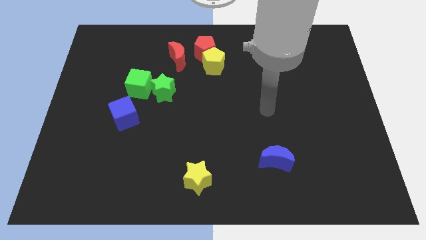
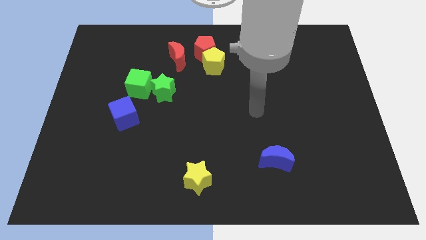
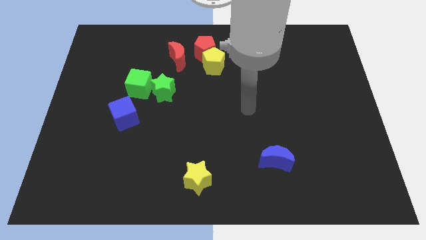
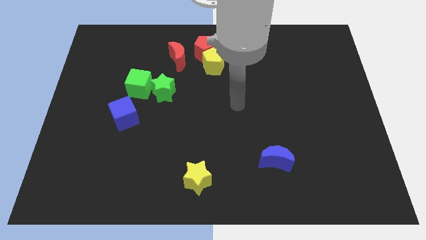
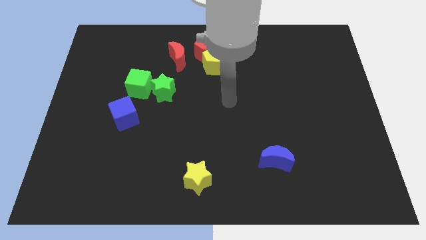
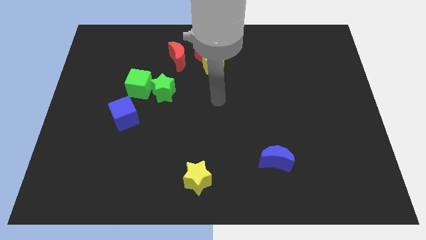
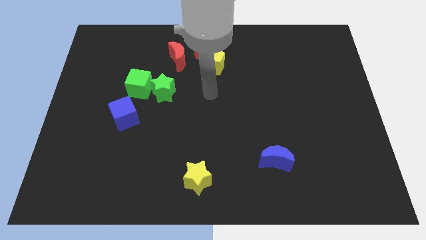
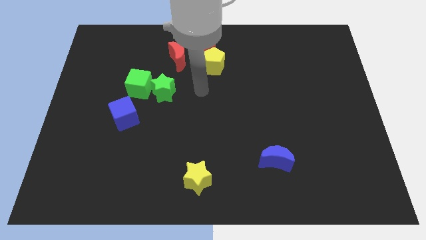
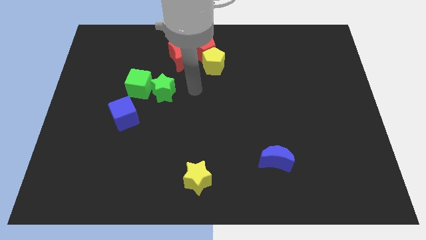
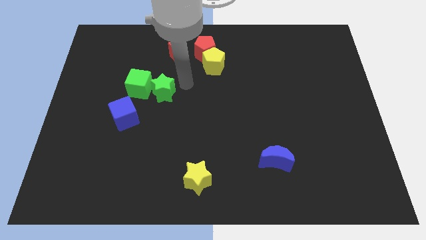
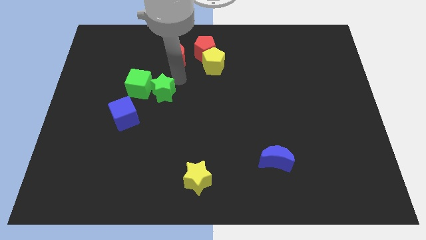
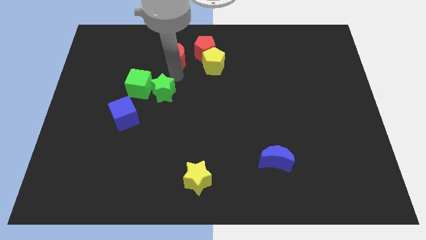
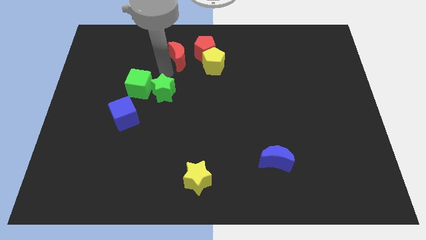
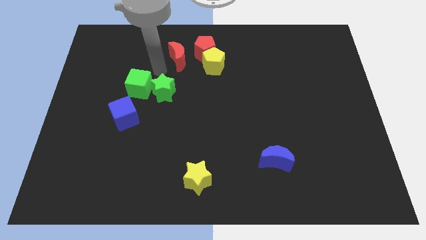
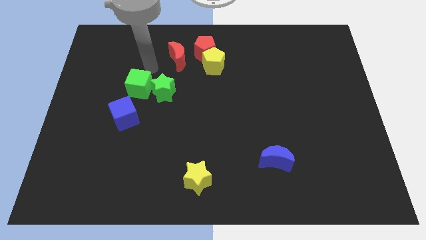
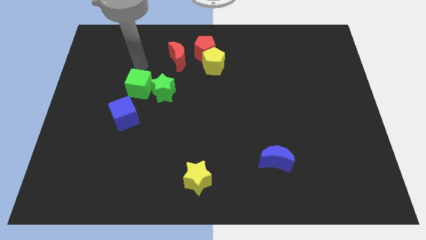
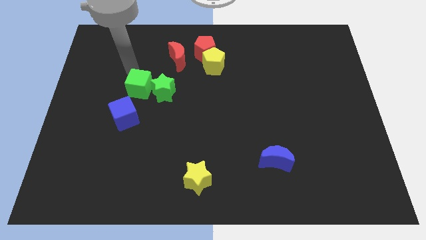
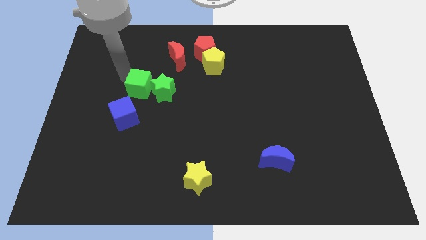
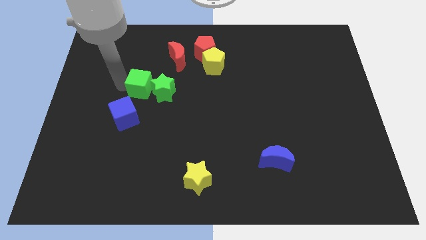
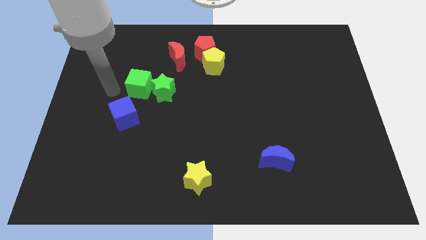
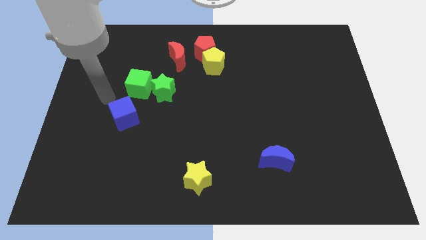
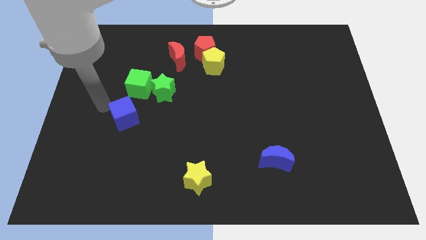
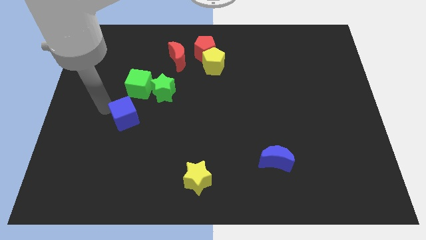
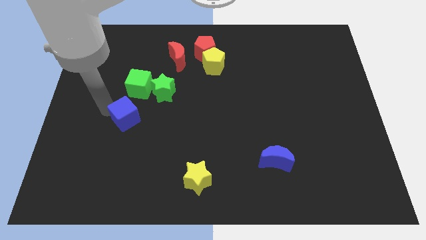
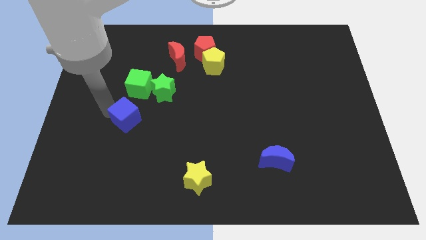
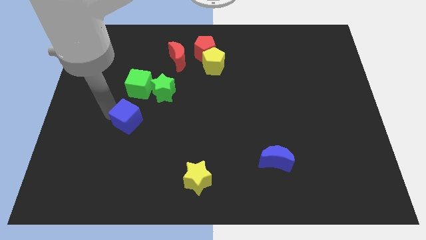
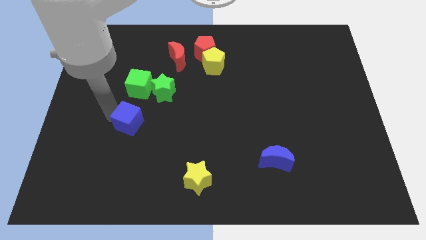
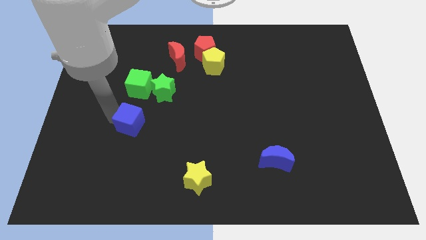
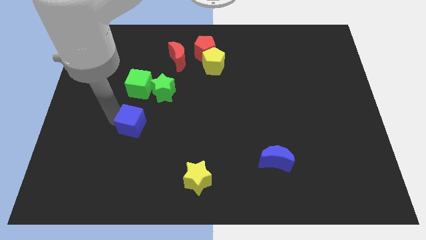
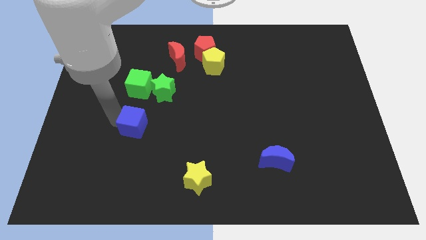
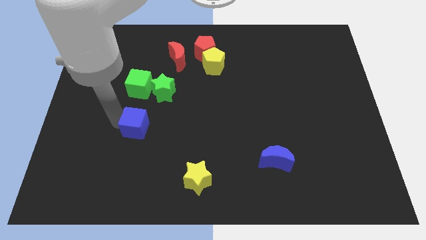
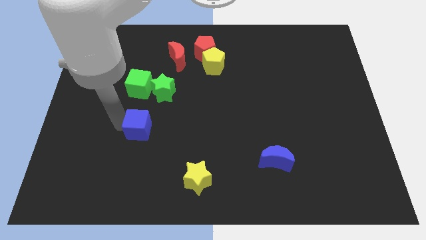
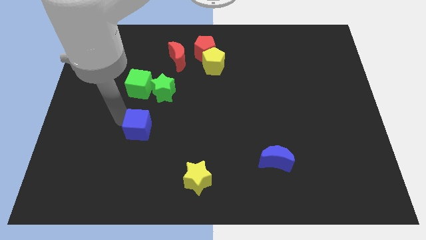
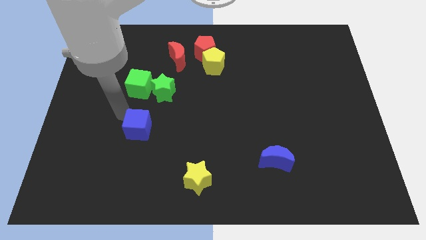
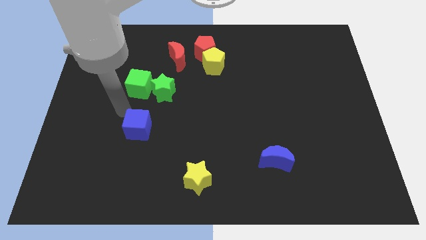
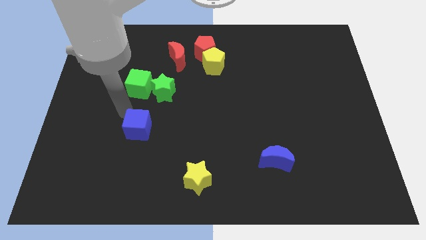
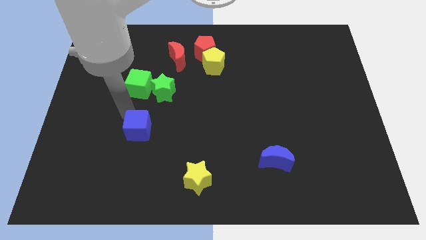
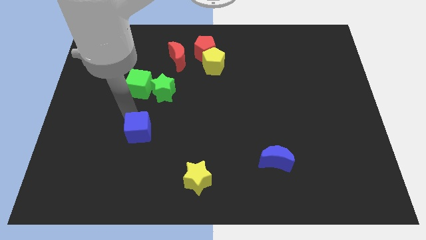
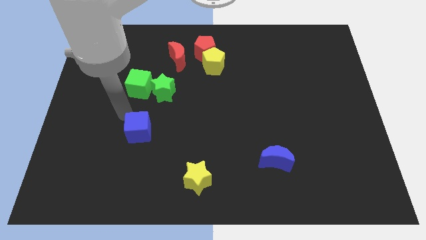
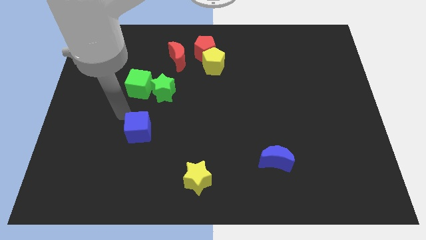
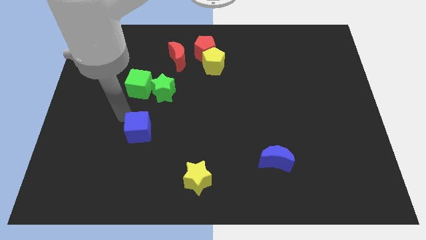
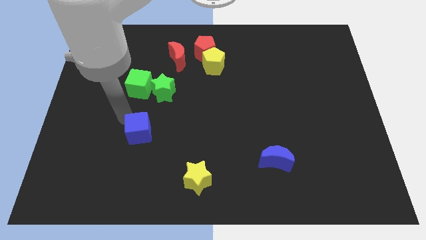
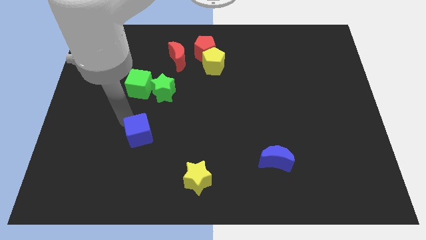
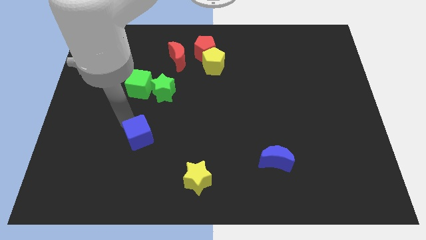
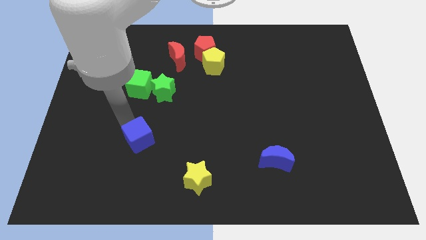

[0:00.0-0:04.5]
slide the blue cube down and to the right a bit

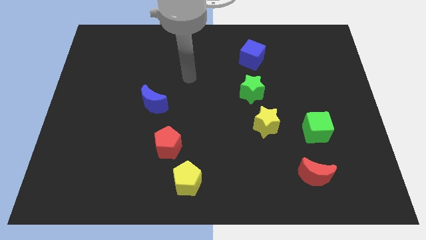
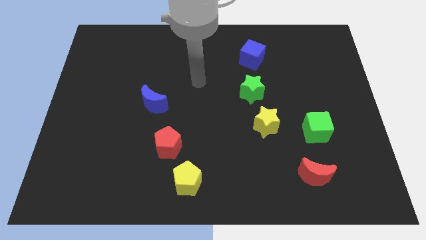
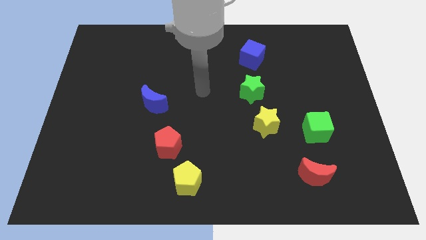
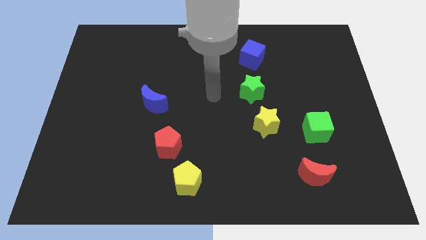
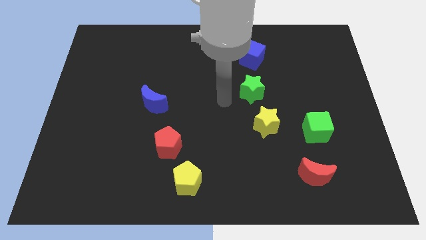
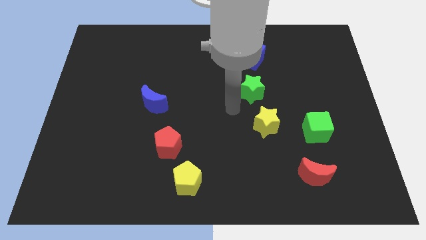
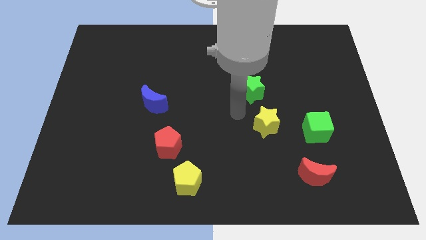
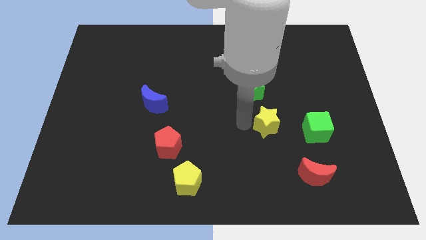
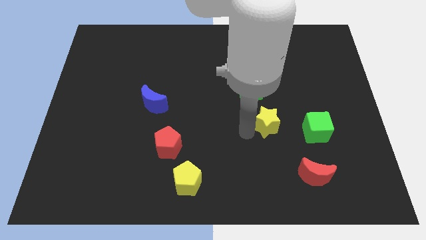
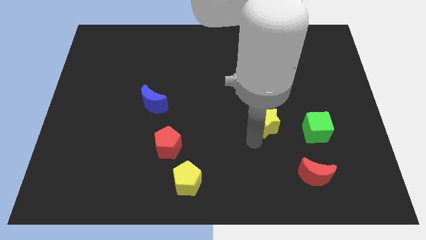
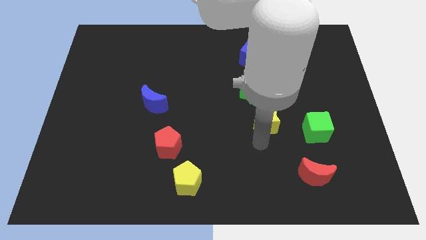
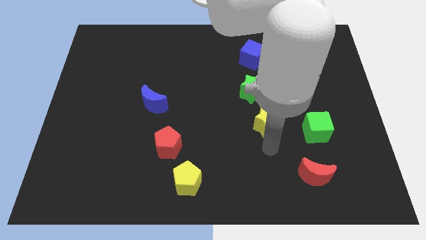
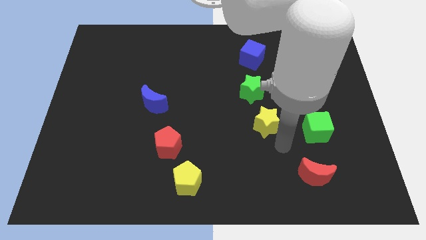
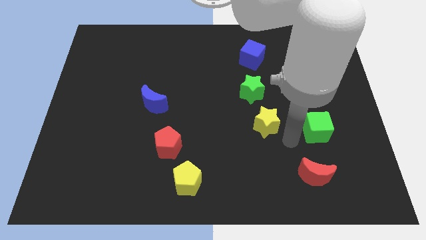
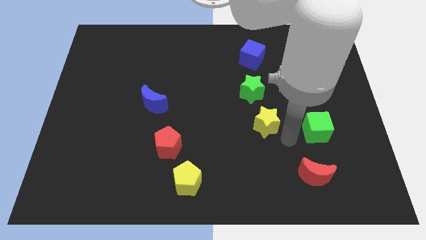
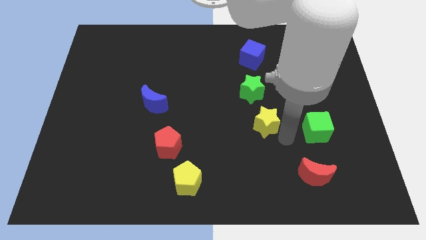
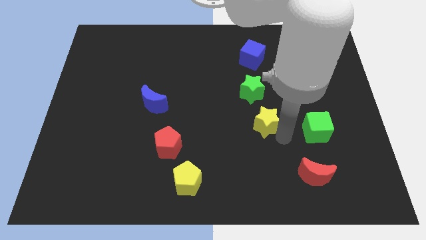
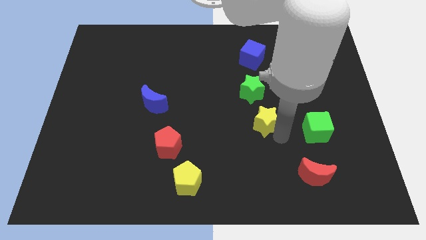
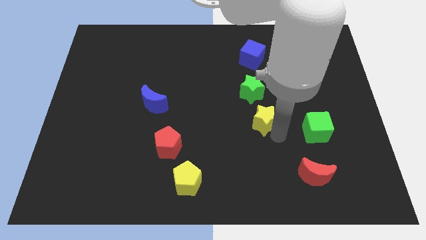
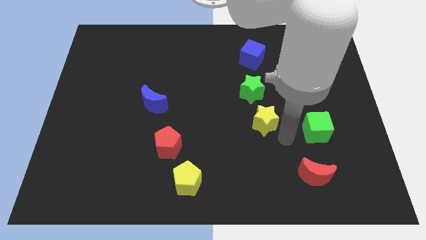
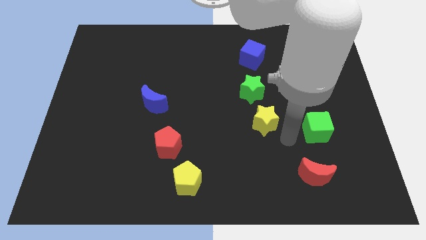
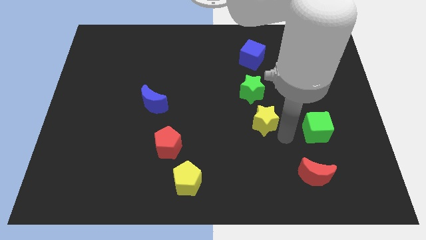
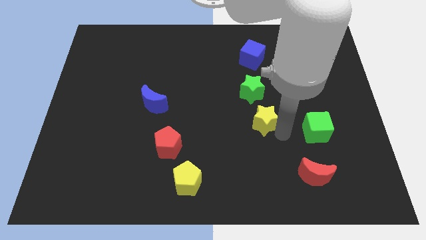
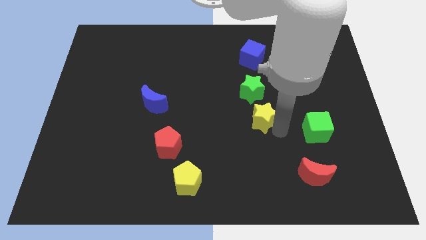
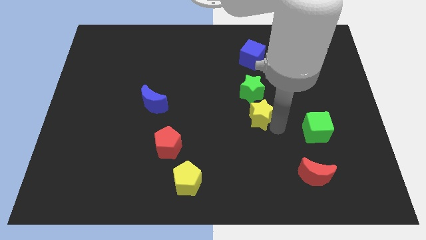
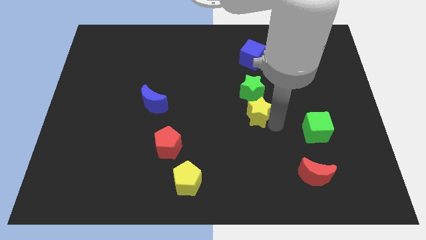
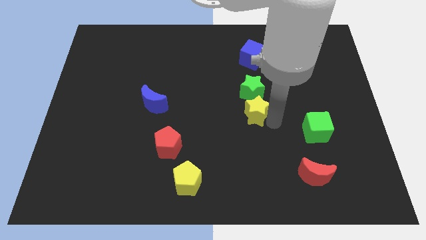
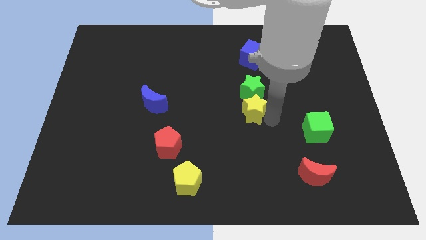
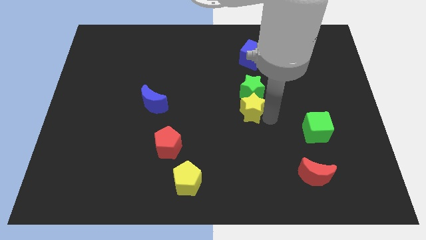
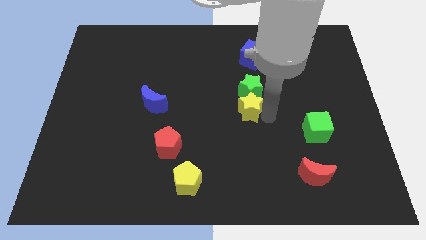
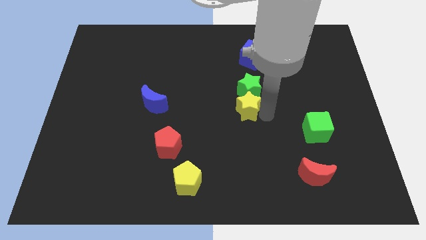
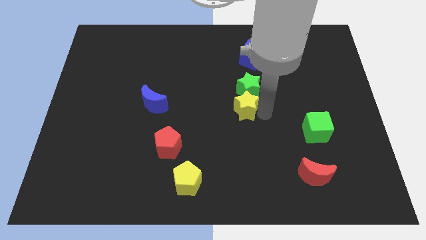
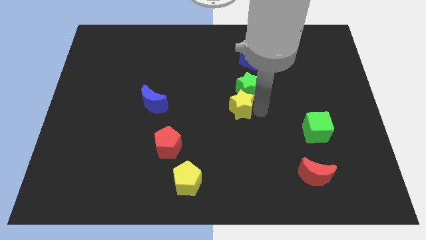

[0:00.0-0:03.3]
slightly push the yellow star diagonally upwards and left
